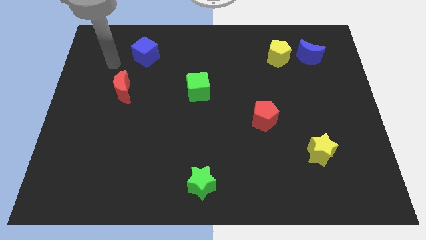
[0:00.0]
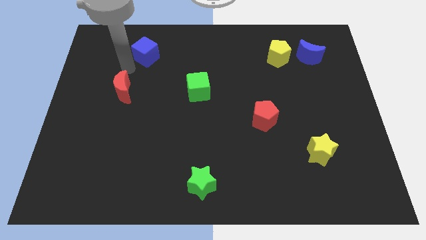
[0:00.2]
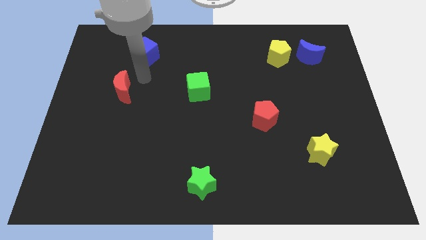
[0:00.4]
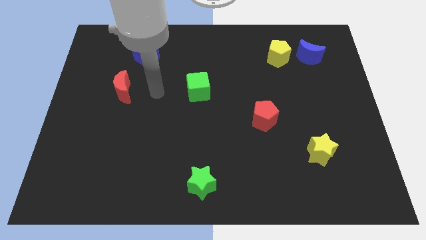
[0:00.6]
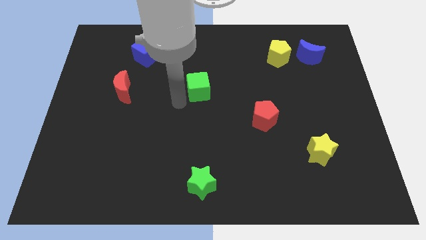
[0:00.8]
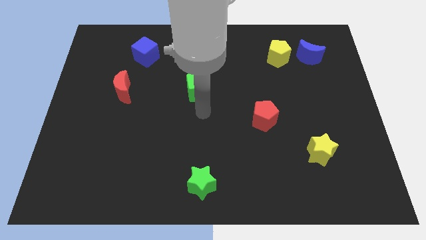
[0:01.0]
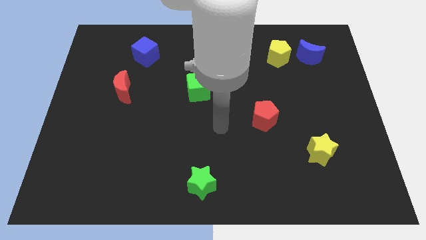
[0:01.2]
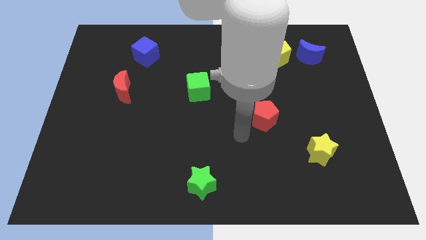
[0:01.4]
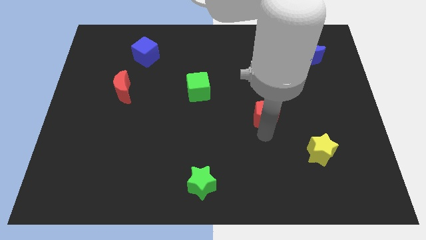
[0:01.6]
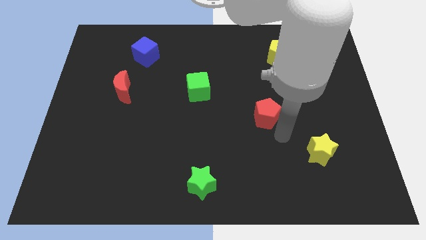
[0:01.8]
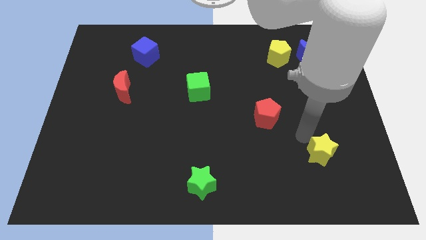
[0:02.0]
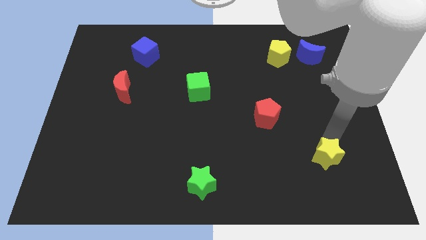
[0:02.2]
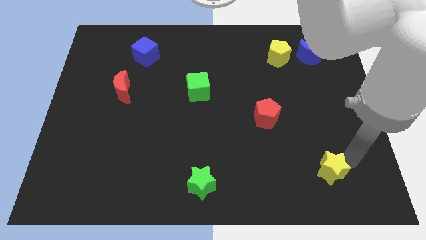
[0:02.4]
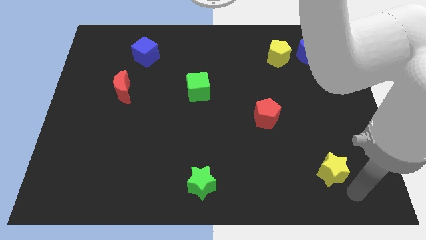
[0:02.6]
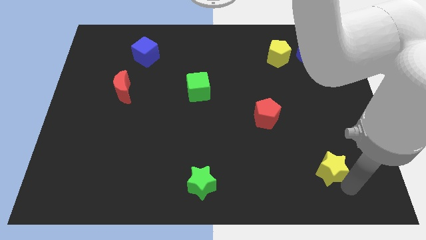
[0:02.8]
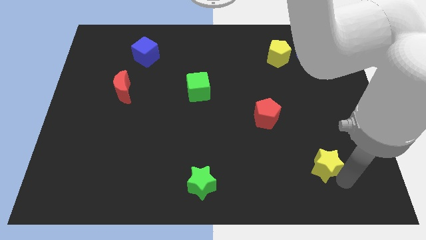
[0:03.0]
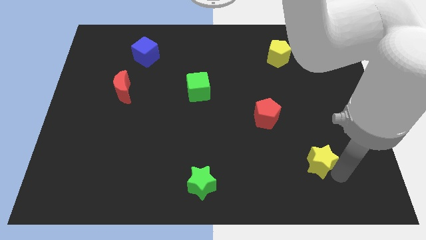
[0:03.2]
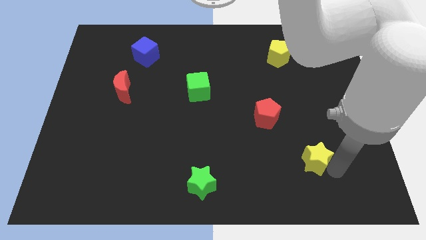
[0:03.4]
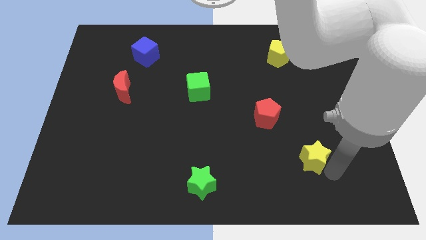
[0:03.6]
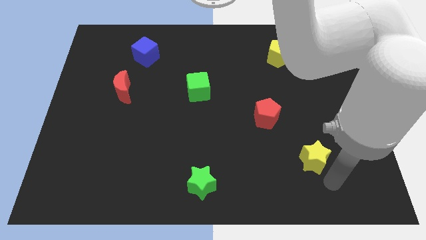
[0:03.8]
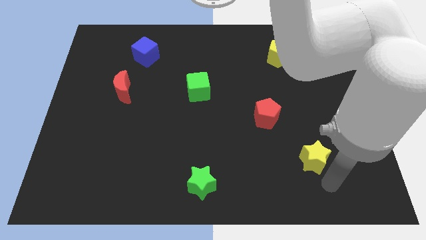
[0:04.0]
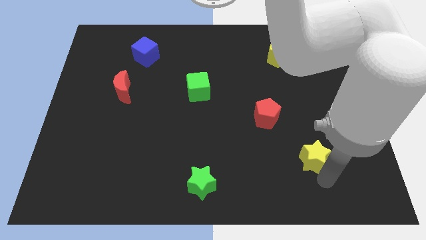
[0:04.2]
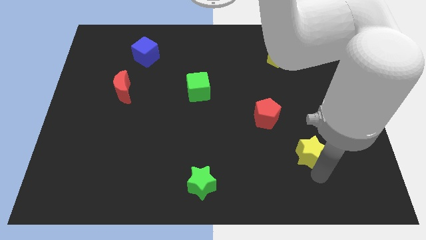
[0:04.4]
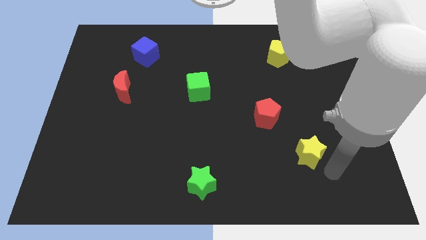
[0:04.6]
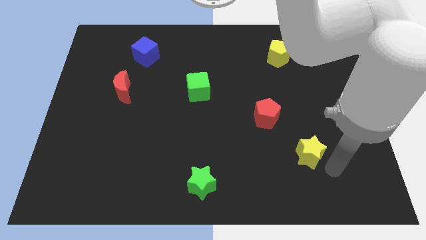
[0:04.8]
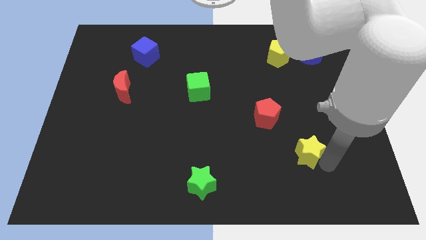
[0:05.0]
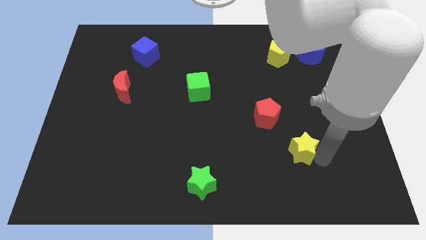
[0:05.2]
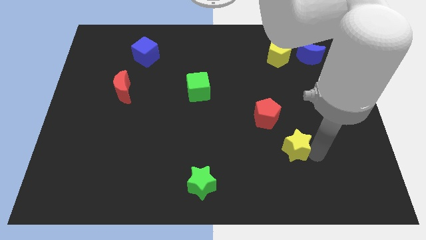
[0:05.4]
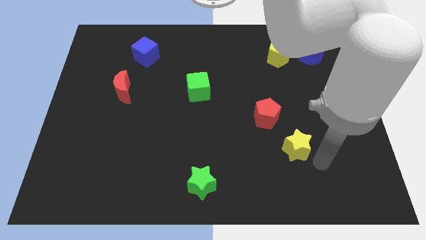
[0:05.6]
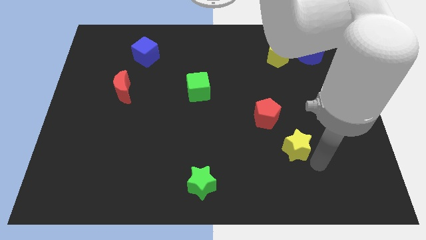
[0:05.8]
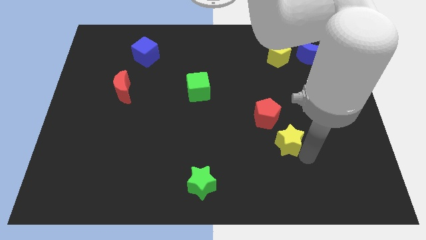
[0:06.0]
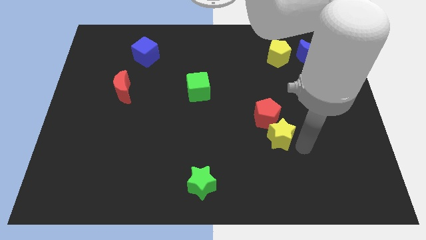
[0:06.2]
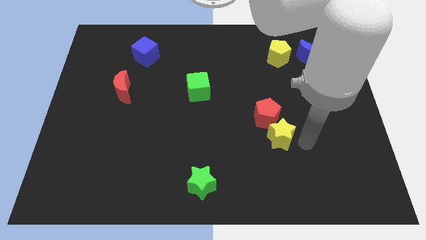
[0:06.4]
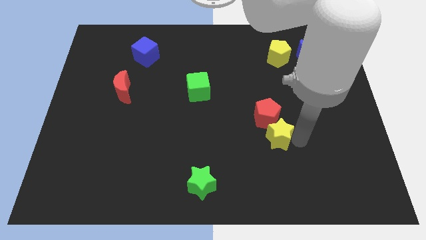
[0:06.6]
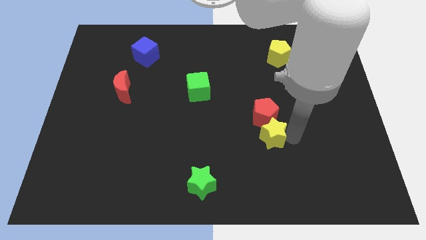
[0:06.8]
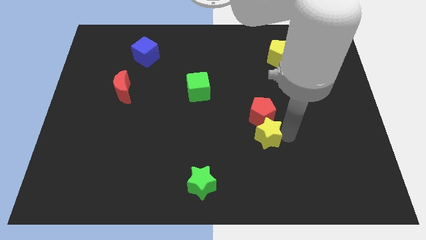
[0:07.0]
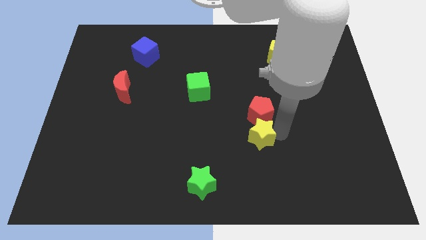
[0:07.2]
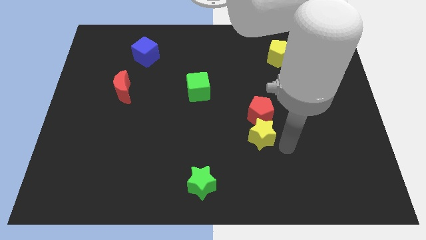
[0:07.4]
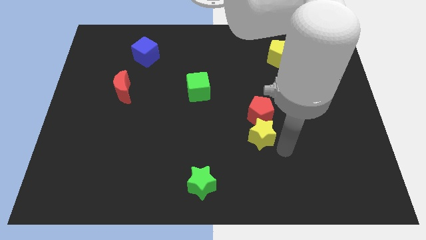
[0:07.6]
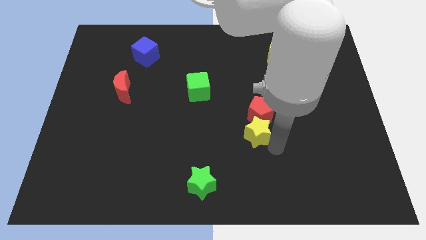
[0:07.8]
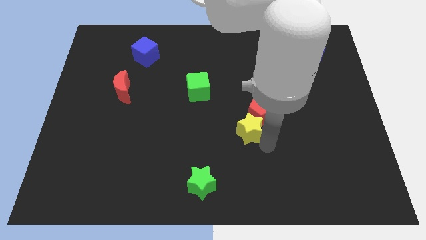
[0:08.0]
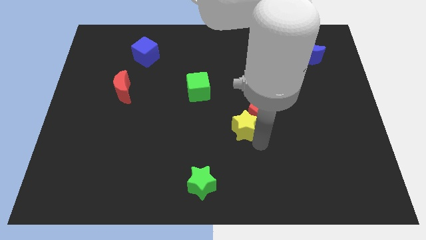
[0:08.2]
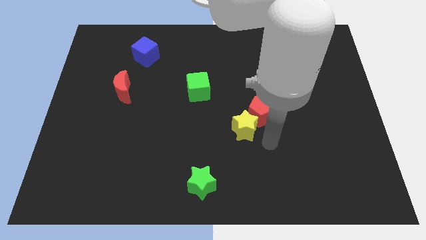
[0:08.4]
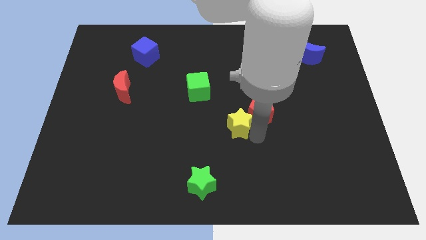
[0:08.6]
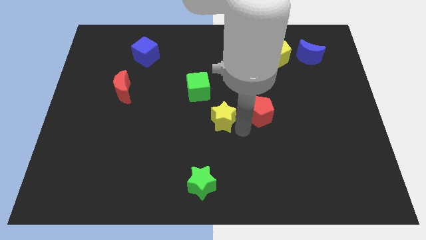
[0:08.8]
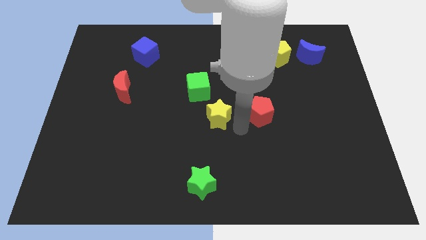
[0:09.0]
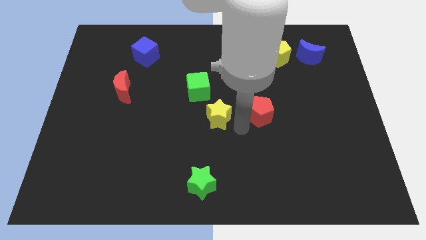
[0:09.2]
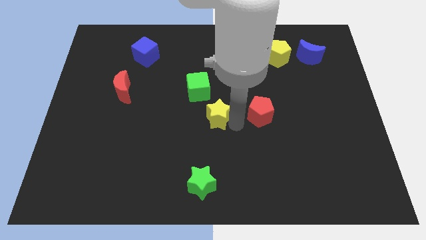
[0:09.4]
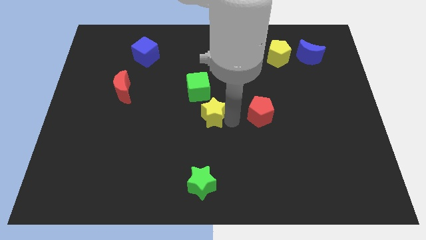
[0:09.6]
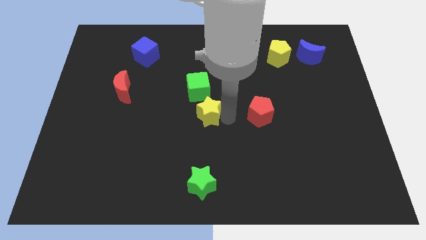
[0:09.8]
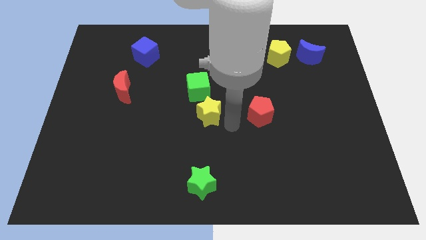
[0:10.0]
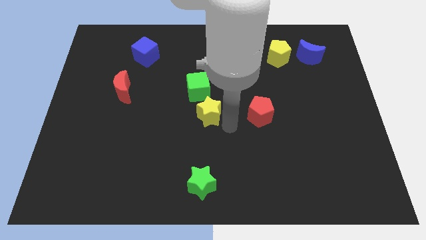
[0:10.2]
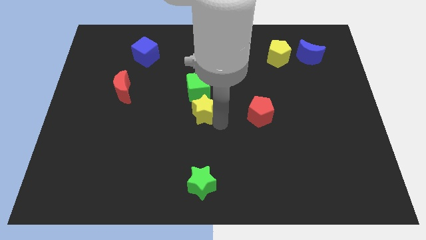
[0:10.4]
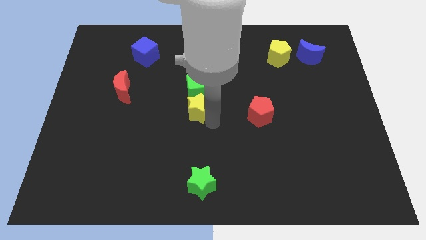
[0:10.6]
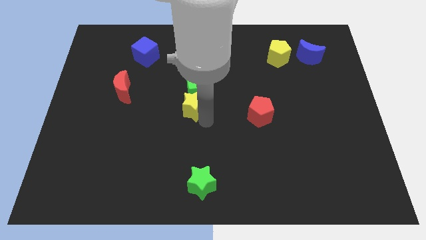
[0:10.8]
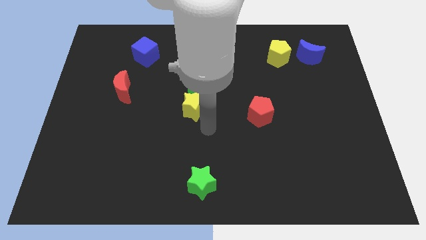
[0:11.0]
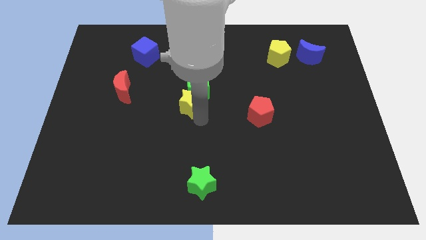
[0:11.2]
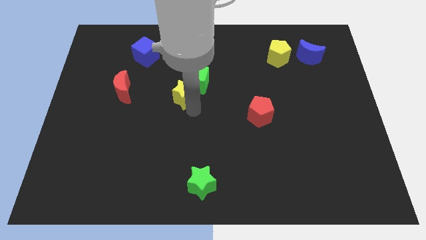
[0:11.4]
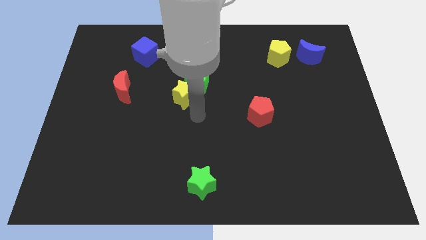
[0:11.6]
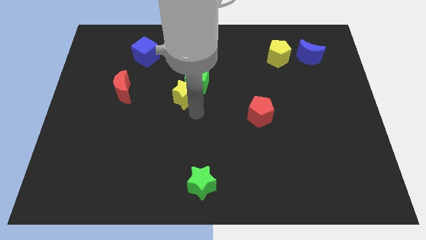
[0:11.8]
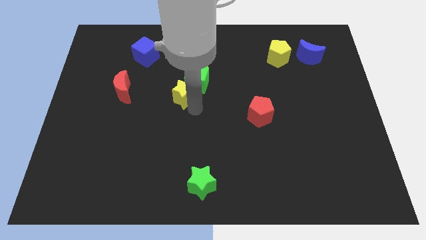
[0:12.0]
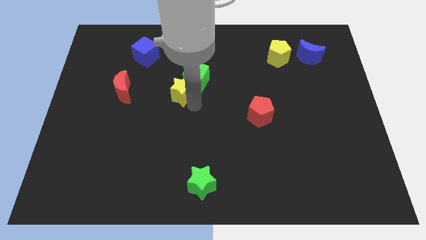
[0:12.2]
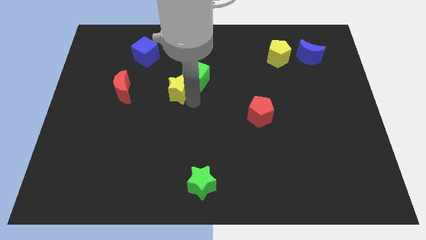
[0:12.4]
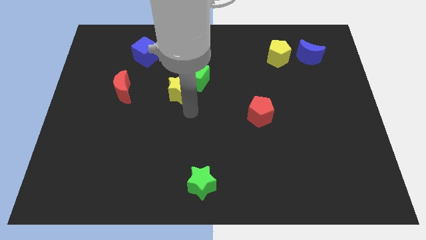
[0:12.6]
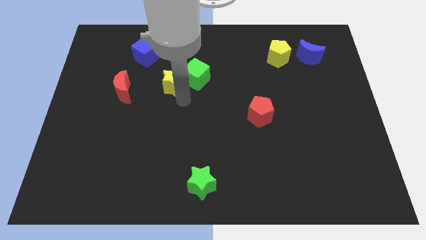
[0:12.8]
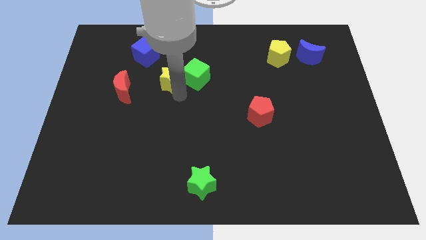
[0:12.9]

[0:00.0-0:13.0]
move the yellow star to the bottom right of the blue cube

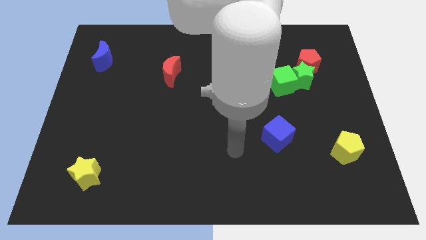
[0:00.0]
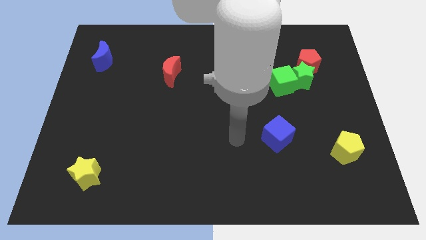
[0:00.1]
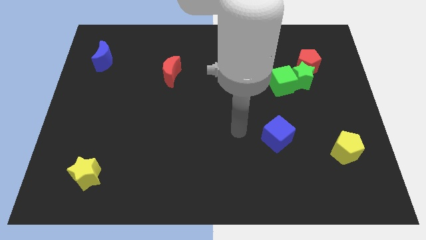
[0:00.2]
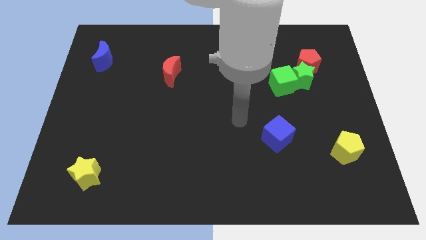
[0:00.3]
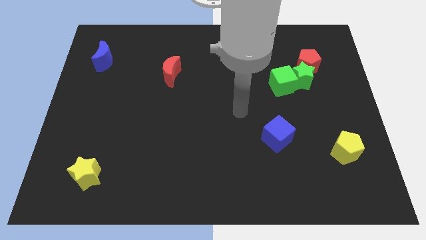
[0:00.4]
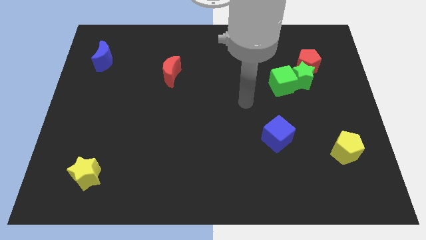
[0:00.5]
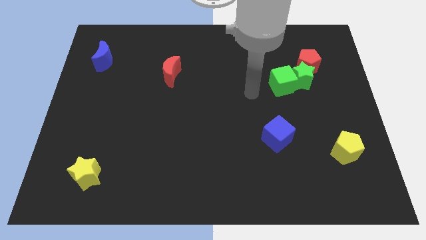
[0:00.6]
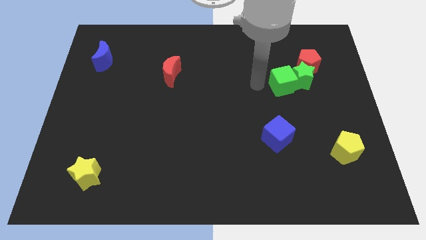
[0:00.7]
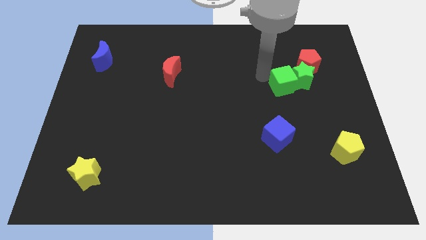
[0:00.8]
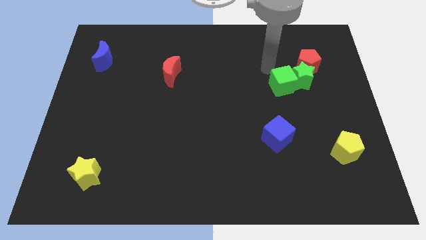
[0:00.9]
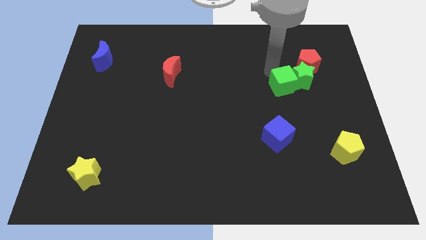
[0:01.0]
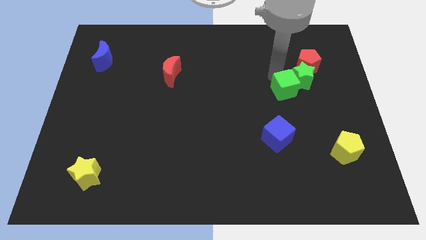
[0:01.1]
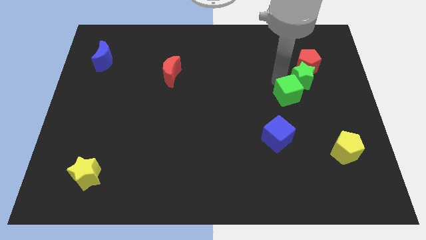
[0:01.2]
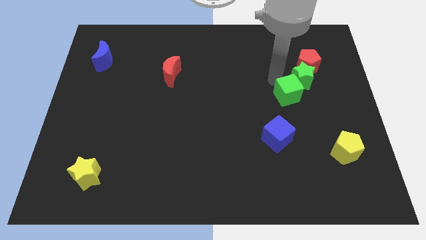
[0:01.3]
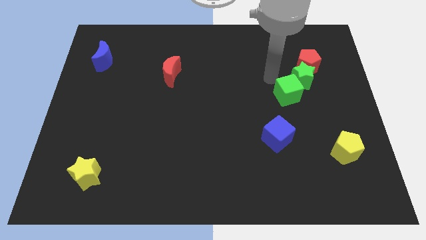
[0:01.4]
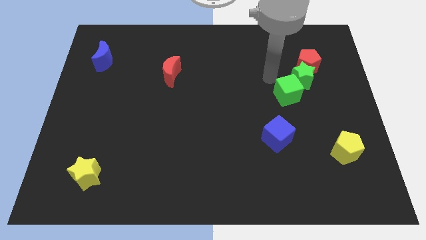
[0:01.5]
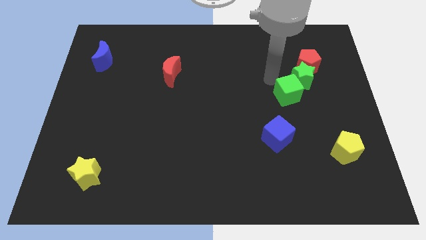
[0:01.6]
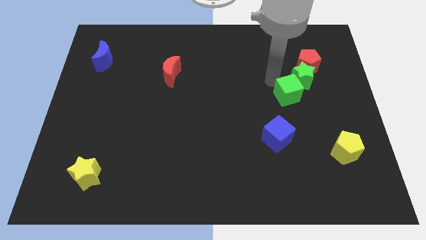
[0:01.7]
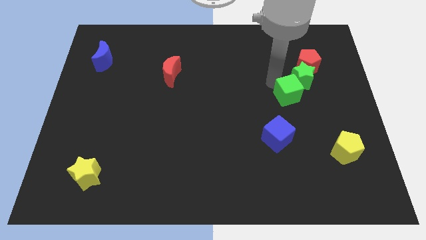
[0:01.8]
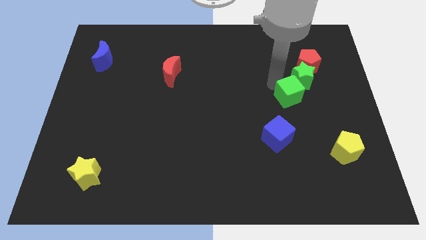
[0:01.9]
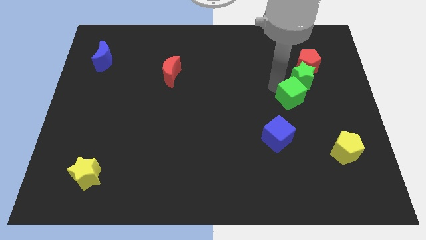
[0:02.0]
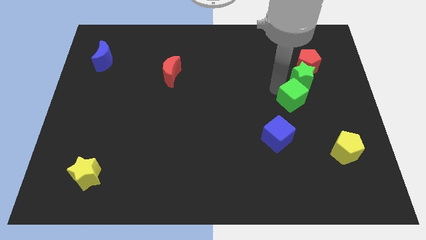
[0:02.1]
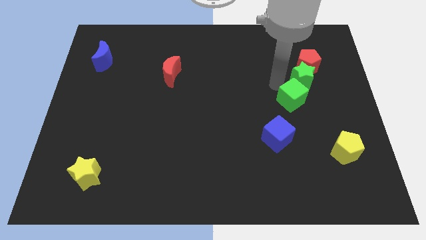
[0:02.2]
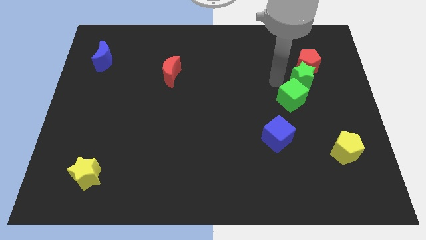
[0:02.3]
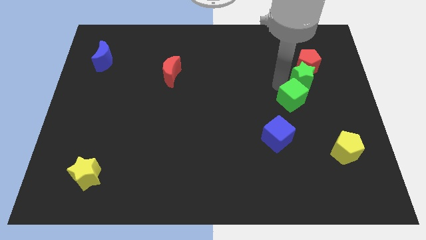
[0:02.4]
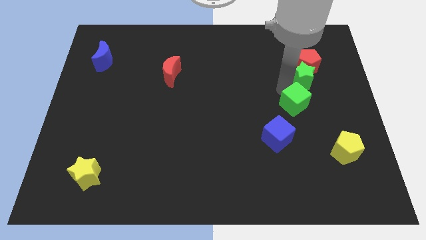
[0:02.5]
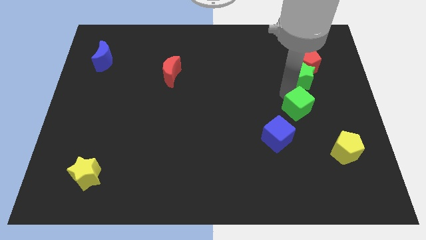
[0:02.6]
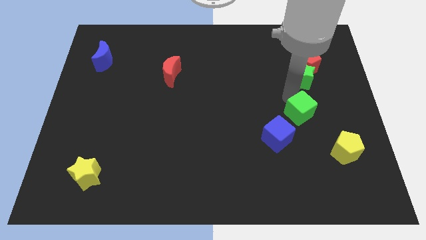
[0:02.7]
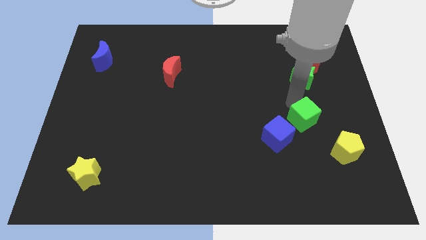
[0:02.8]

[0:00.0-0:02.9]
slide the green cube to the top left side of the yellow pentagon
